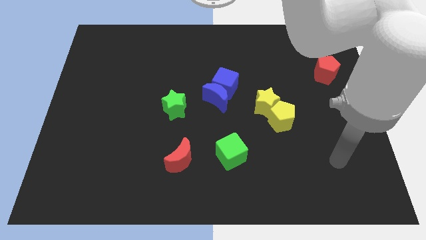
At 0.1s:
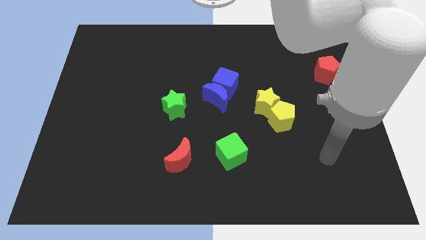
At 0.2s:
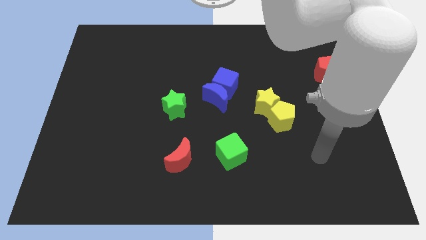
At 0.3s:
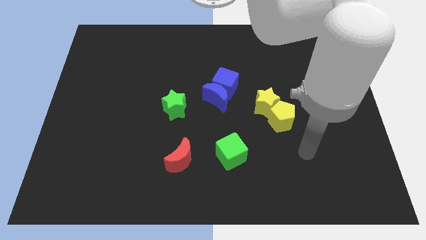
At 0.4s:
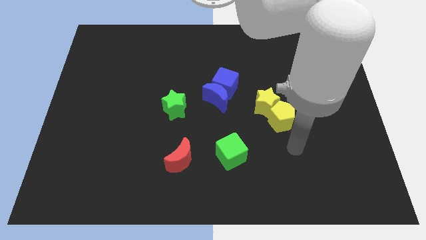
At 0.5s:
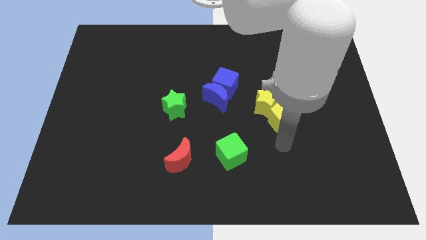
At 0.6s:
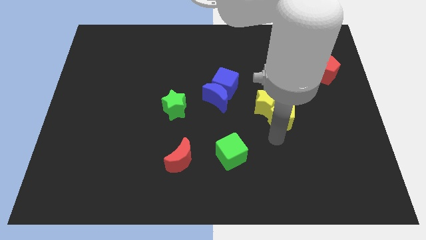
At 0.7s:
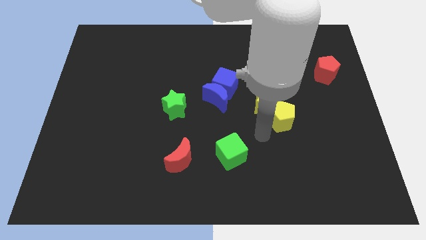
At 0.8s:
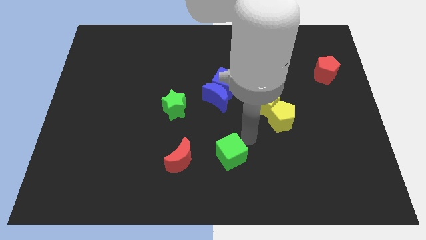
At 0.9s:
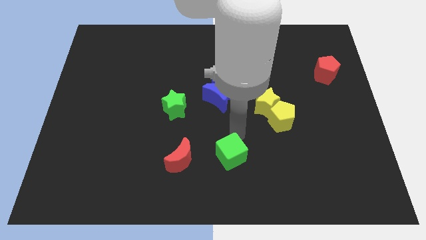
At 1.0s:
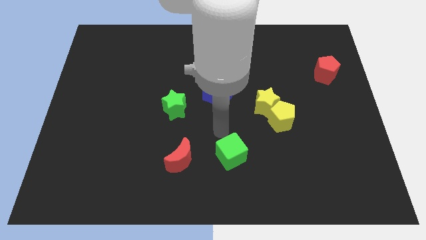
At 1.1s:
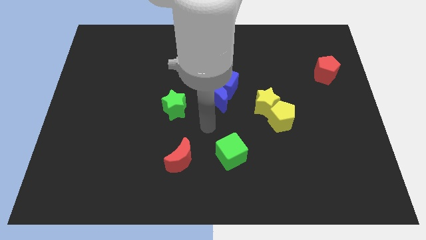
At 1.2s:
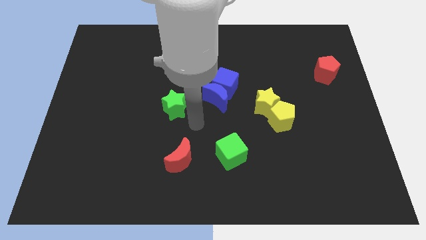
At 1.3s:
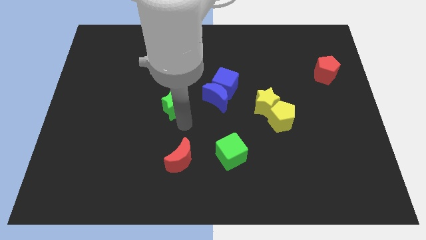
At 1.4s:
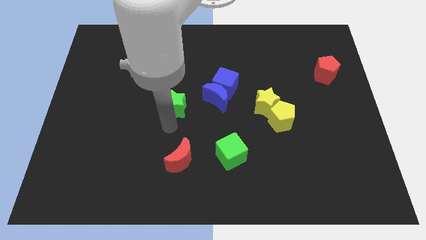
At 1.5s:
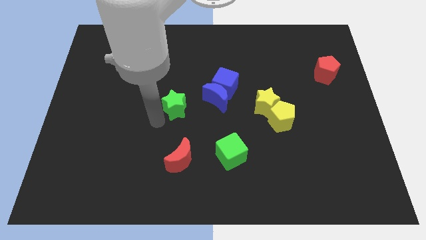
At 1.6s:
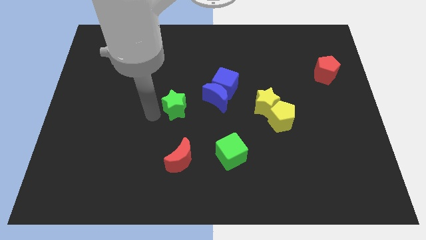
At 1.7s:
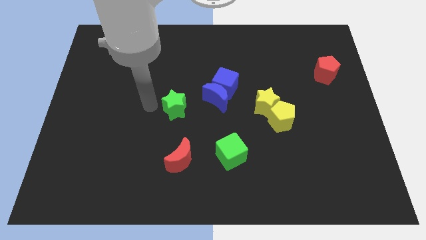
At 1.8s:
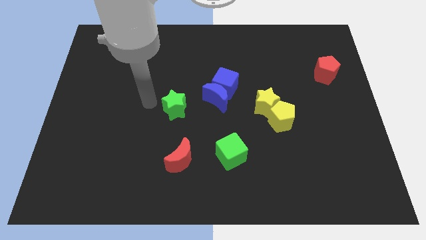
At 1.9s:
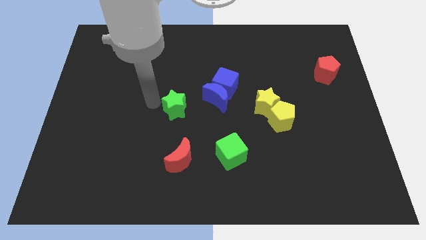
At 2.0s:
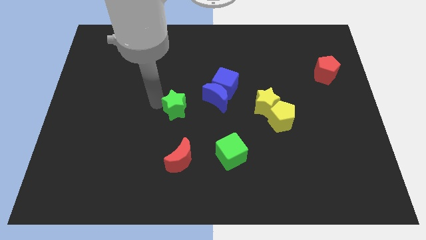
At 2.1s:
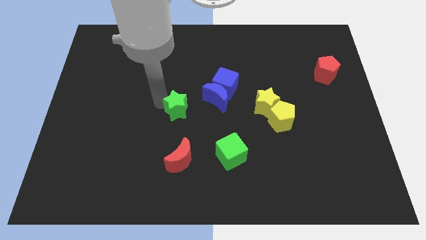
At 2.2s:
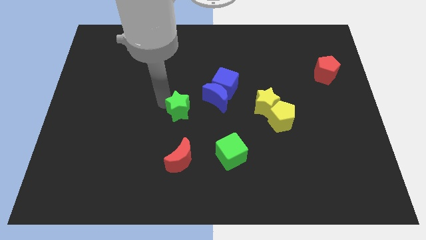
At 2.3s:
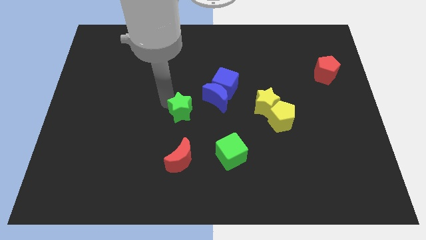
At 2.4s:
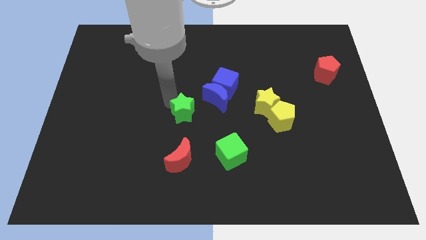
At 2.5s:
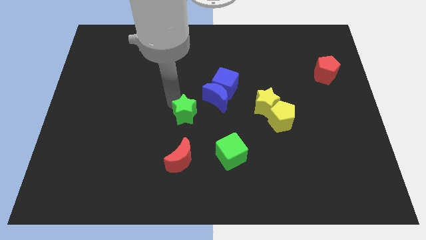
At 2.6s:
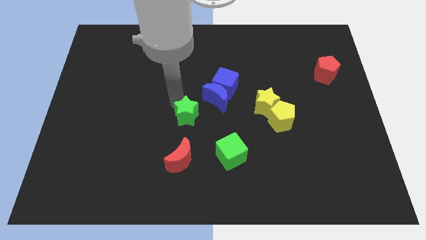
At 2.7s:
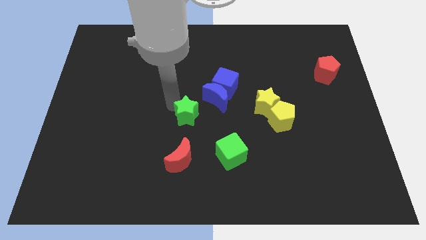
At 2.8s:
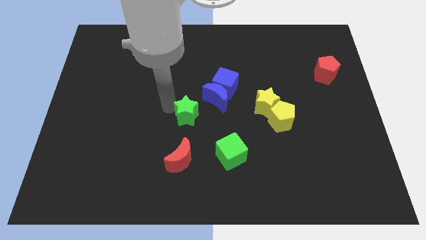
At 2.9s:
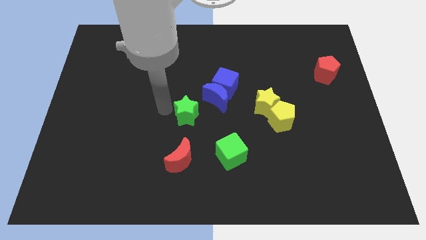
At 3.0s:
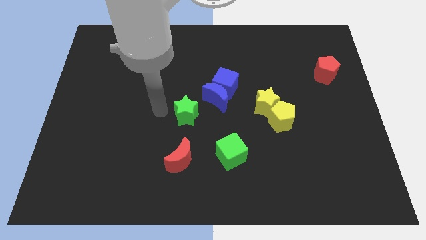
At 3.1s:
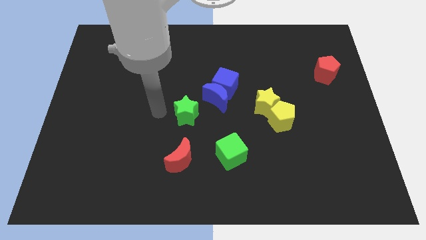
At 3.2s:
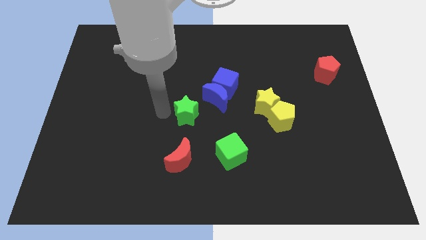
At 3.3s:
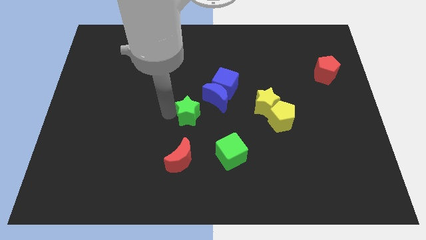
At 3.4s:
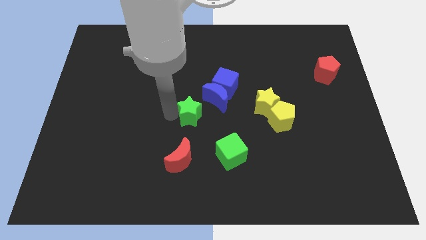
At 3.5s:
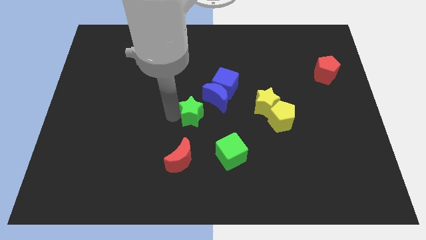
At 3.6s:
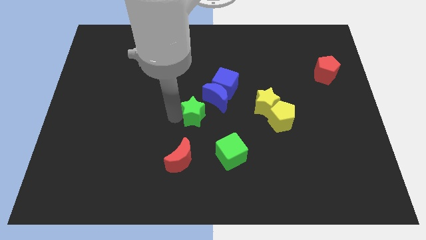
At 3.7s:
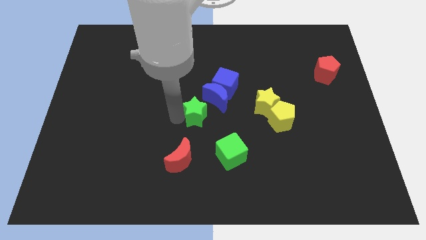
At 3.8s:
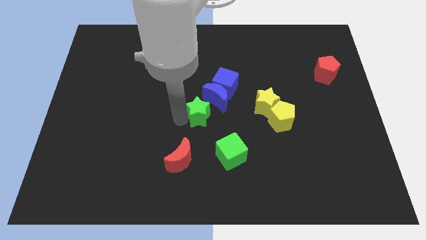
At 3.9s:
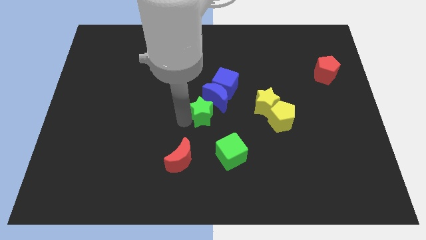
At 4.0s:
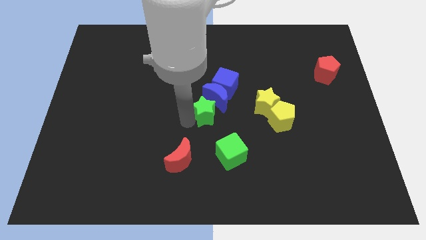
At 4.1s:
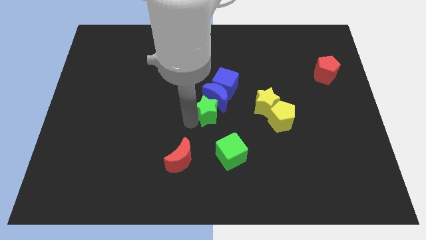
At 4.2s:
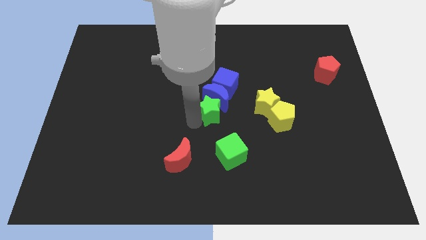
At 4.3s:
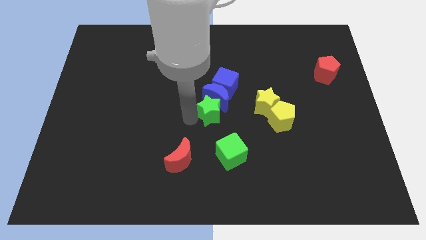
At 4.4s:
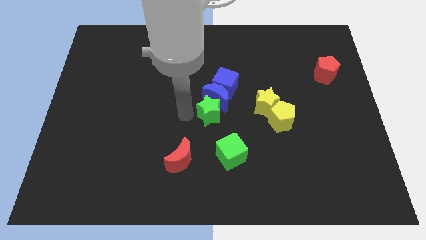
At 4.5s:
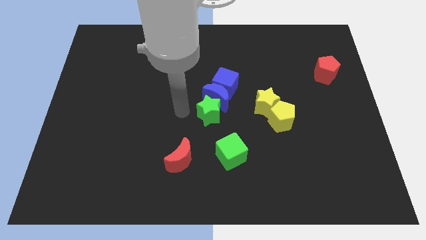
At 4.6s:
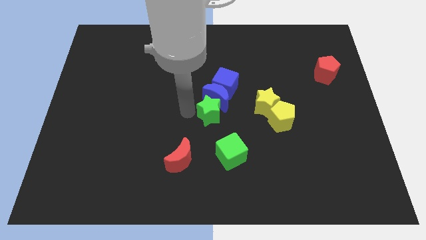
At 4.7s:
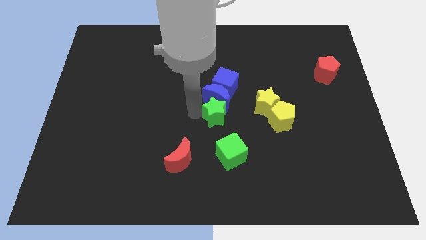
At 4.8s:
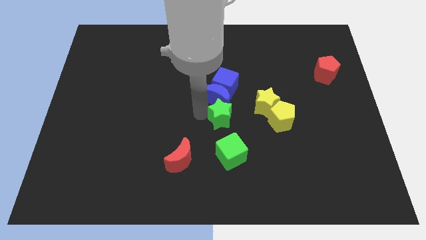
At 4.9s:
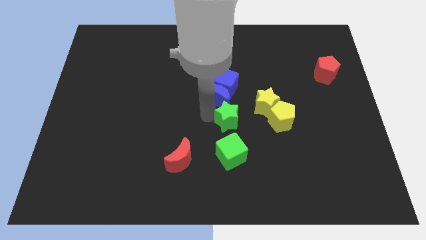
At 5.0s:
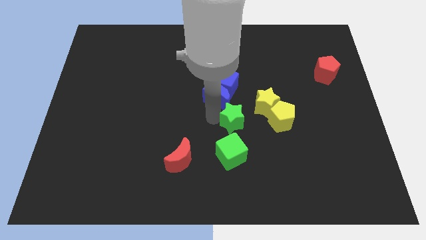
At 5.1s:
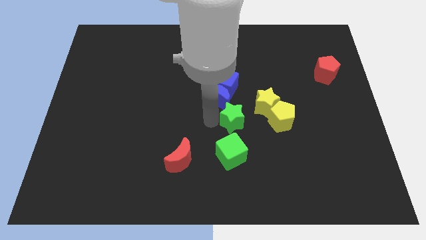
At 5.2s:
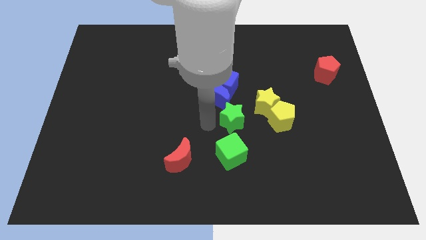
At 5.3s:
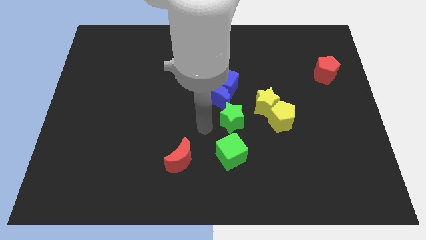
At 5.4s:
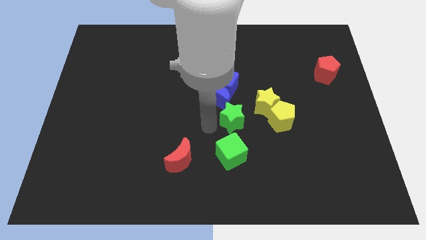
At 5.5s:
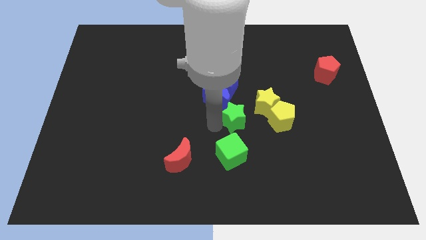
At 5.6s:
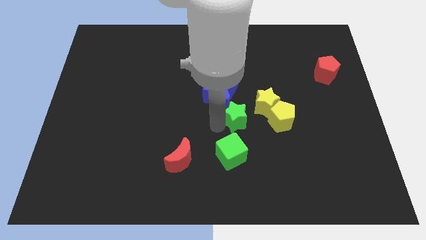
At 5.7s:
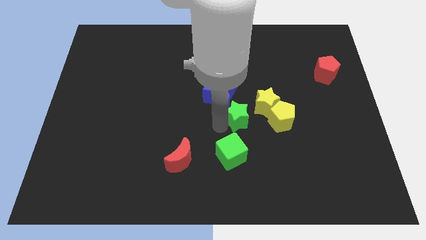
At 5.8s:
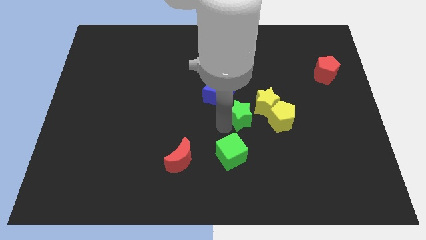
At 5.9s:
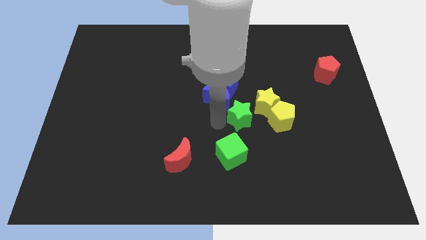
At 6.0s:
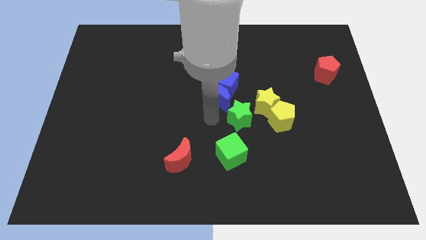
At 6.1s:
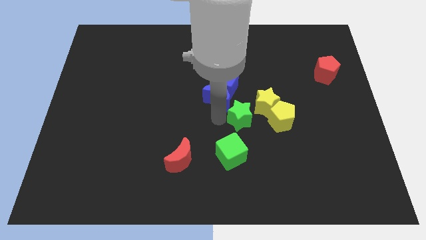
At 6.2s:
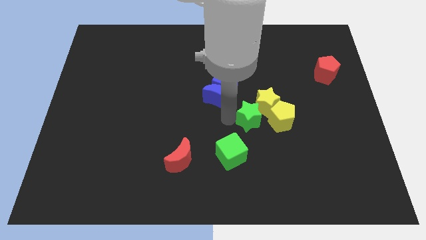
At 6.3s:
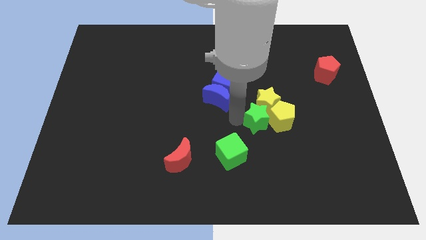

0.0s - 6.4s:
push the green star towards the yellow pentagon

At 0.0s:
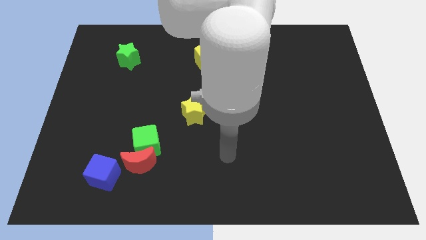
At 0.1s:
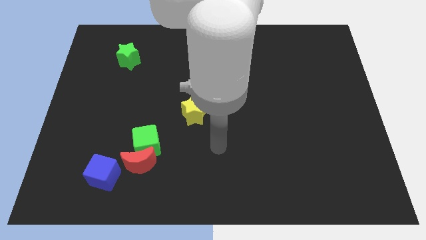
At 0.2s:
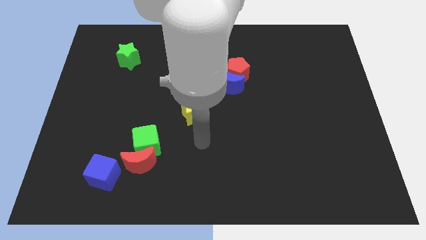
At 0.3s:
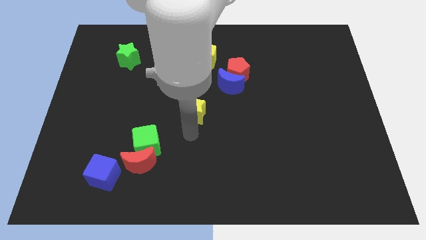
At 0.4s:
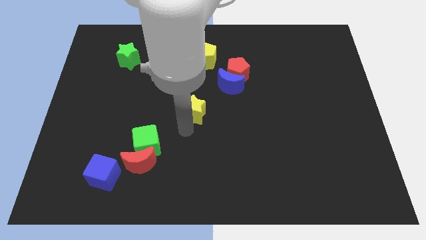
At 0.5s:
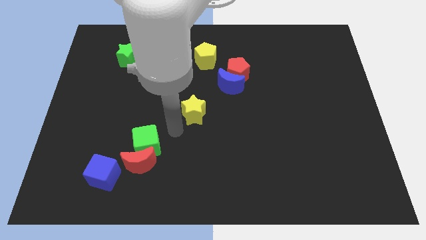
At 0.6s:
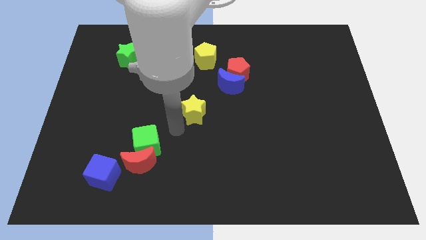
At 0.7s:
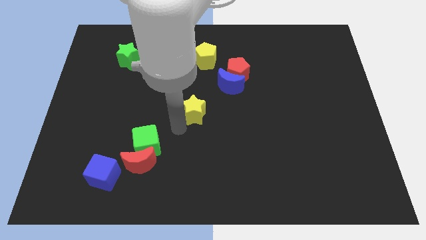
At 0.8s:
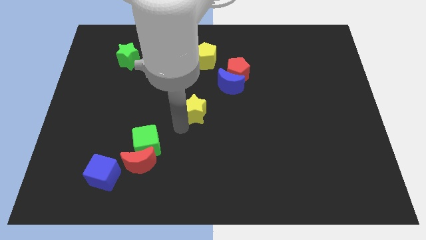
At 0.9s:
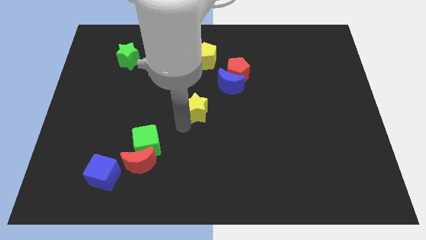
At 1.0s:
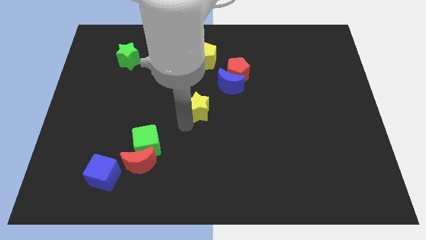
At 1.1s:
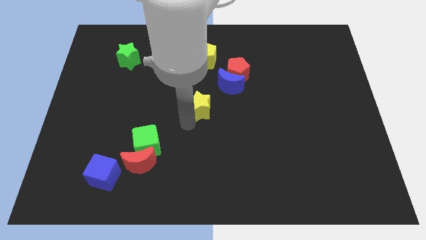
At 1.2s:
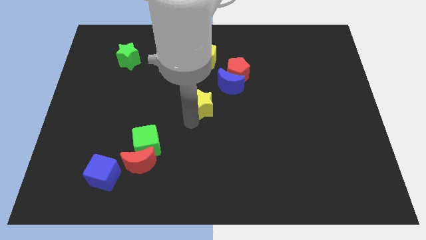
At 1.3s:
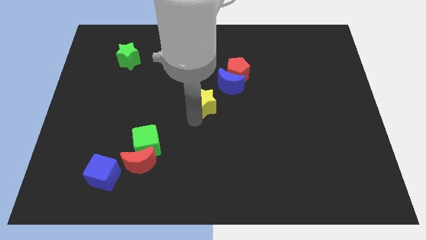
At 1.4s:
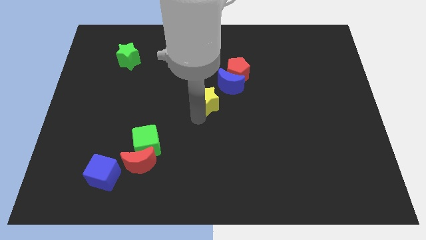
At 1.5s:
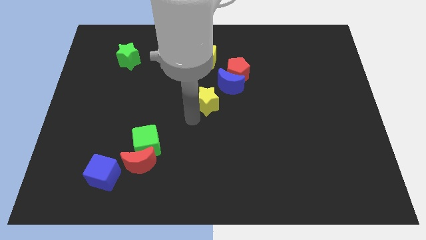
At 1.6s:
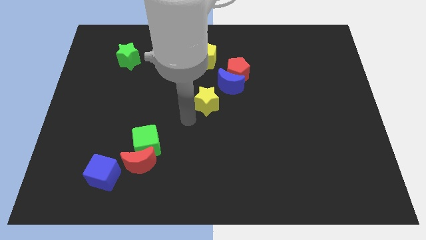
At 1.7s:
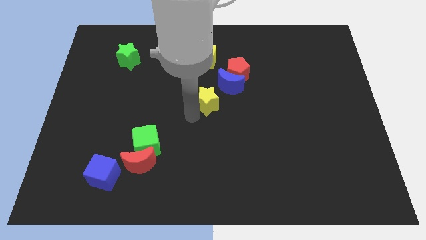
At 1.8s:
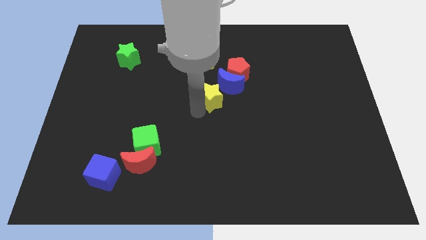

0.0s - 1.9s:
put the yellow star towards the blue moon
